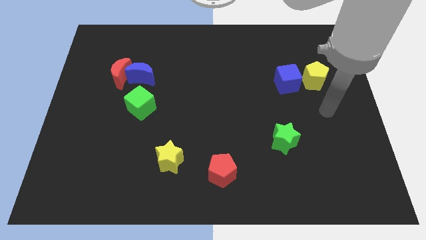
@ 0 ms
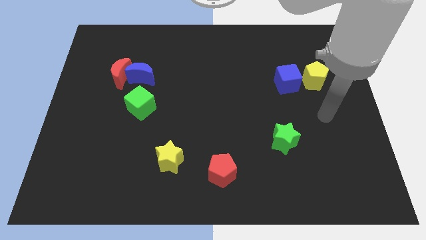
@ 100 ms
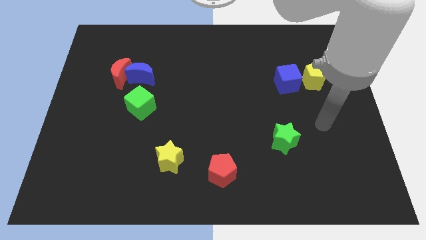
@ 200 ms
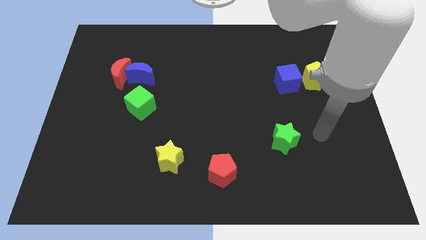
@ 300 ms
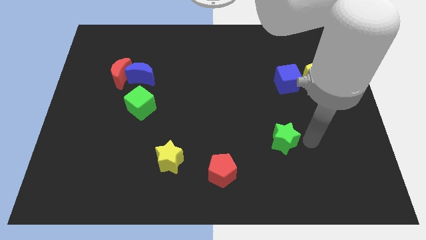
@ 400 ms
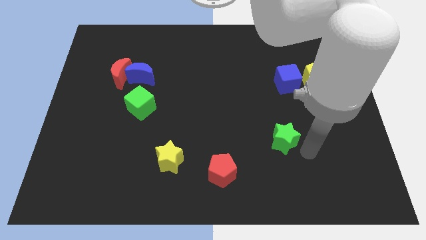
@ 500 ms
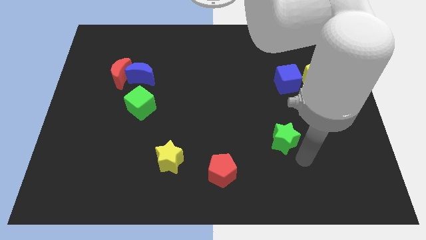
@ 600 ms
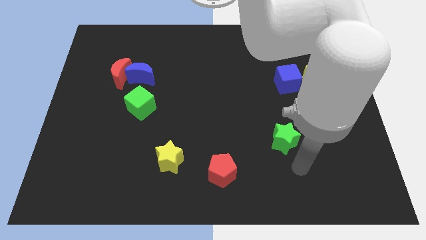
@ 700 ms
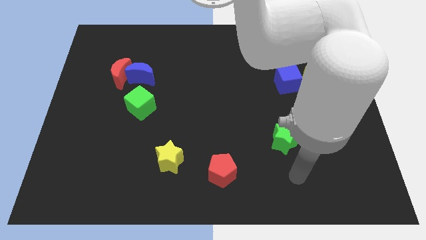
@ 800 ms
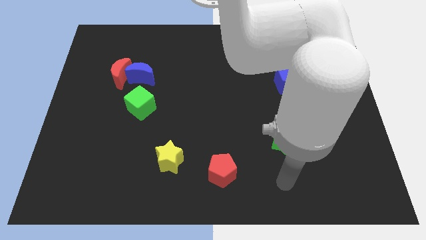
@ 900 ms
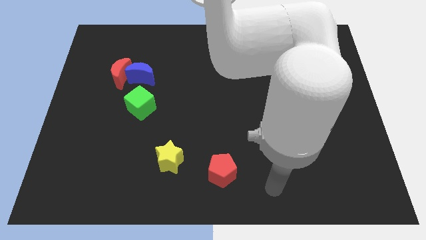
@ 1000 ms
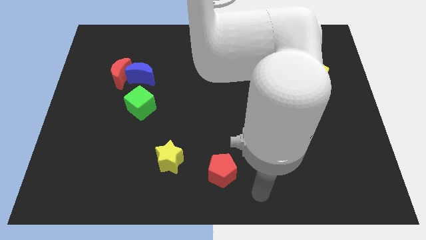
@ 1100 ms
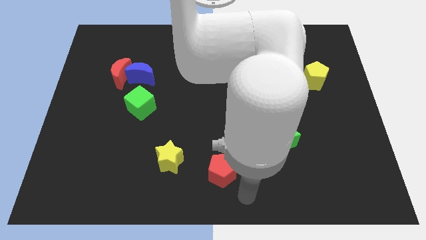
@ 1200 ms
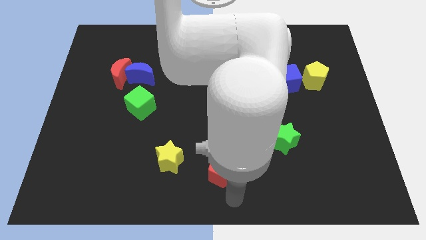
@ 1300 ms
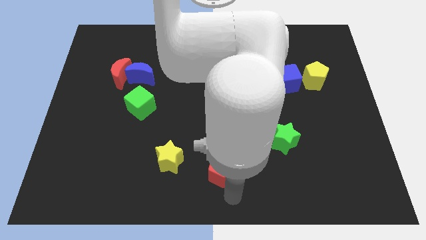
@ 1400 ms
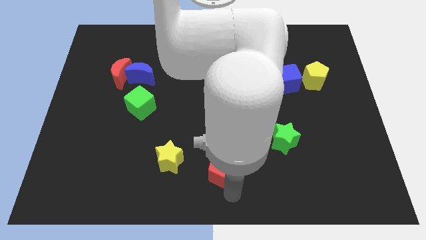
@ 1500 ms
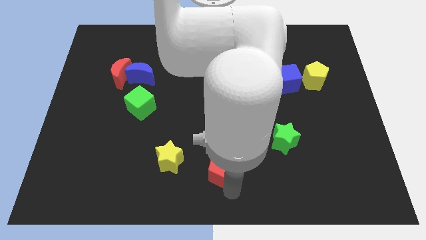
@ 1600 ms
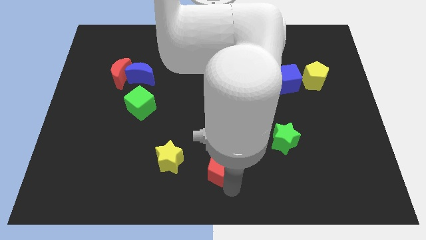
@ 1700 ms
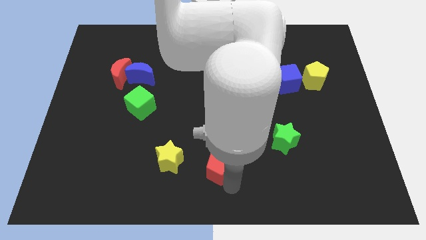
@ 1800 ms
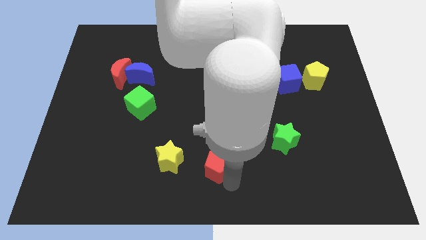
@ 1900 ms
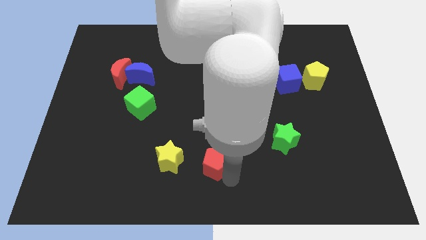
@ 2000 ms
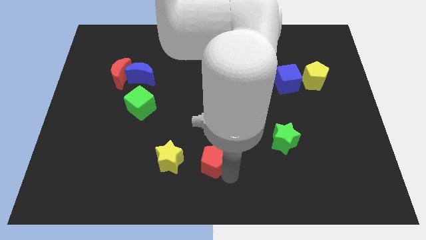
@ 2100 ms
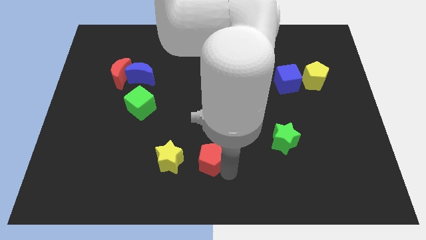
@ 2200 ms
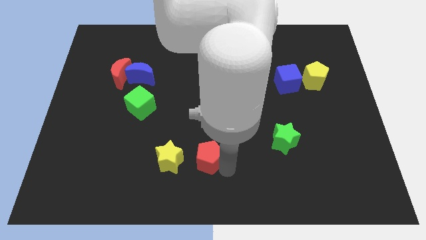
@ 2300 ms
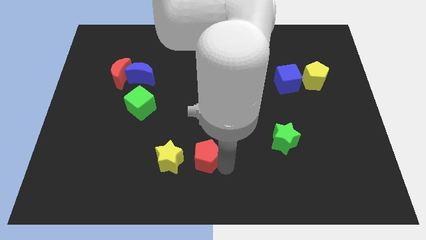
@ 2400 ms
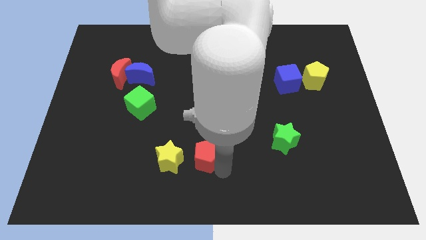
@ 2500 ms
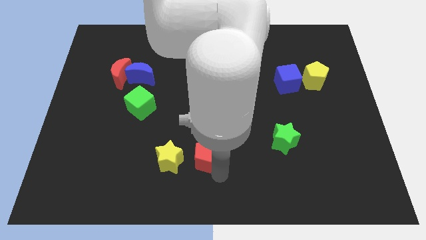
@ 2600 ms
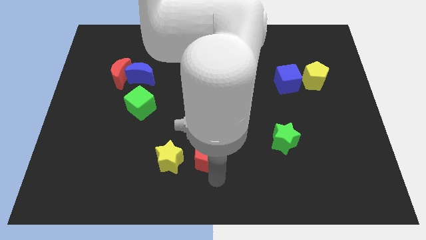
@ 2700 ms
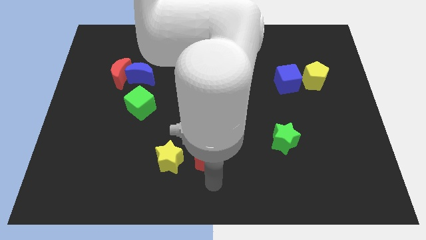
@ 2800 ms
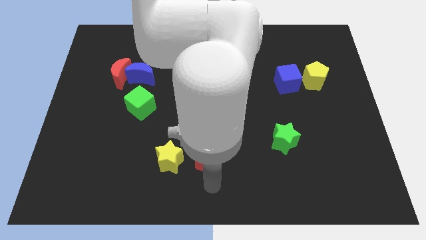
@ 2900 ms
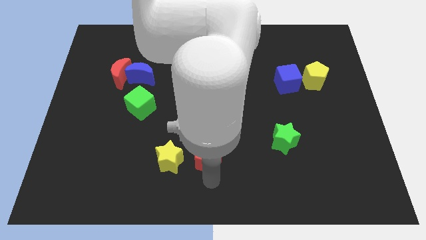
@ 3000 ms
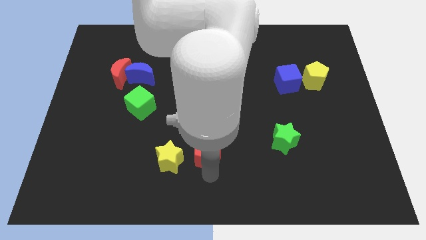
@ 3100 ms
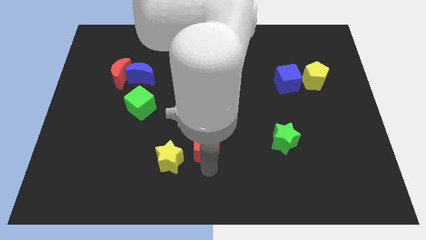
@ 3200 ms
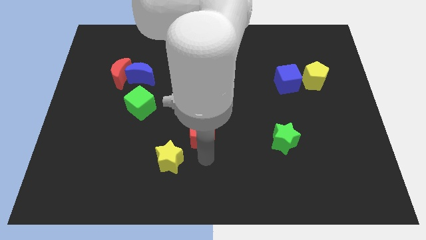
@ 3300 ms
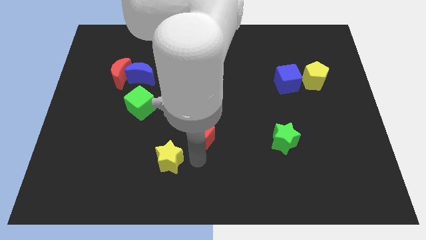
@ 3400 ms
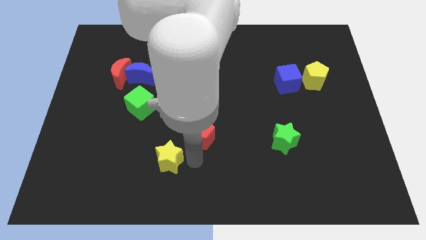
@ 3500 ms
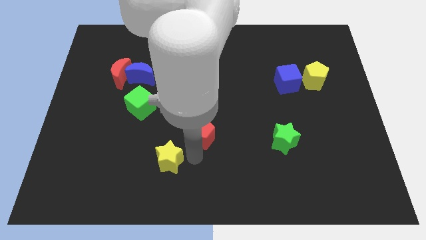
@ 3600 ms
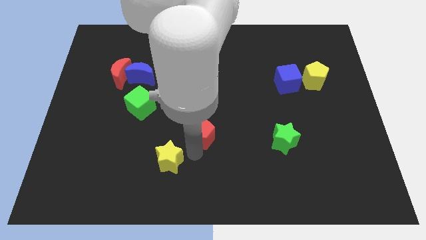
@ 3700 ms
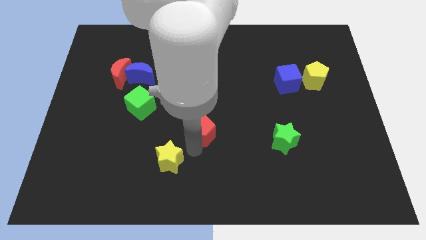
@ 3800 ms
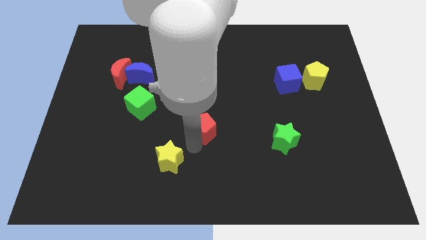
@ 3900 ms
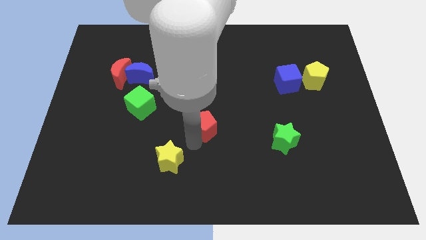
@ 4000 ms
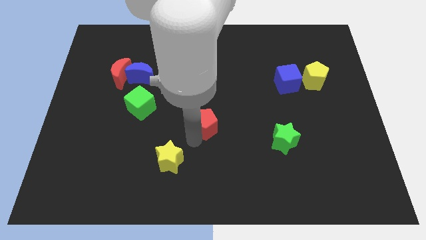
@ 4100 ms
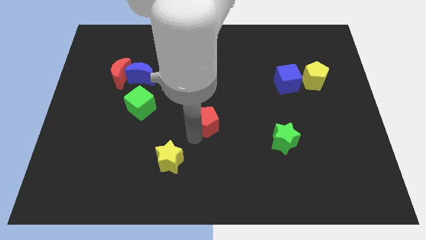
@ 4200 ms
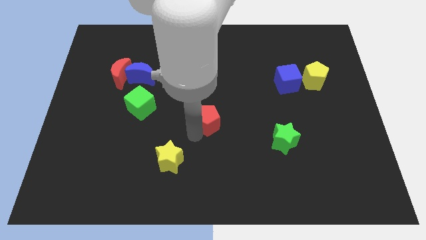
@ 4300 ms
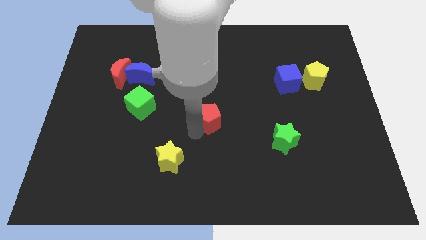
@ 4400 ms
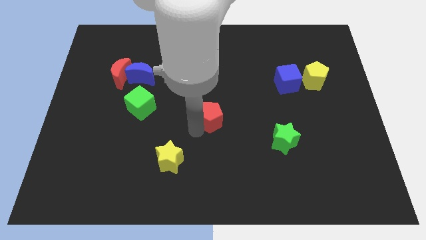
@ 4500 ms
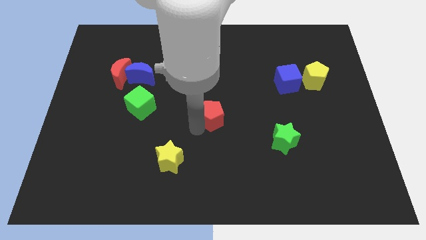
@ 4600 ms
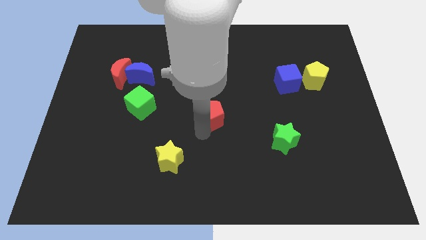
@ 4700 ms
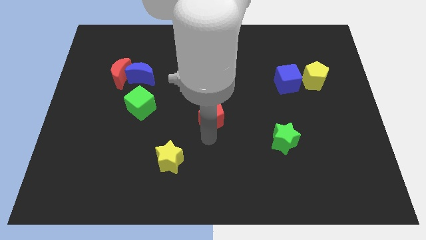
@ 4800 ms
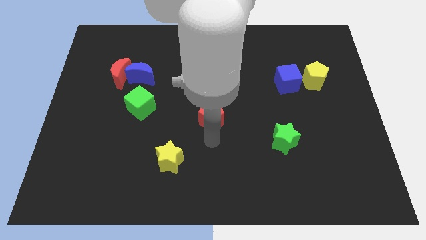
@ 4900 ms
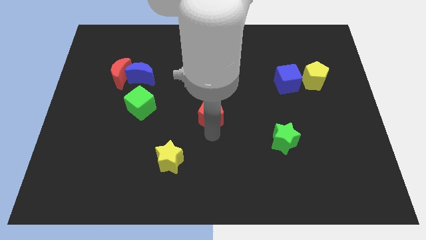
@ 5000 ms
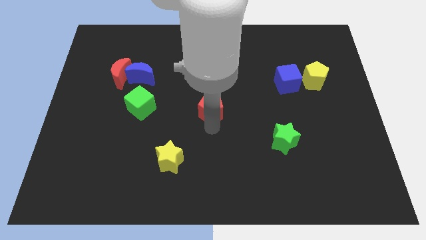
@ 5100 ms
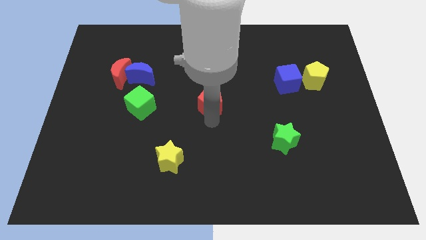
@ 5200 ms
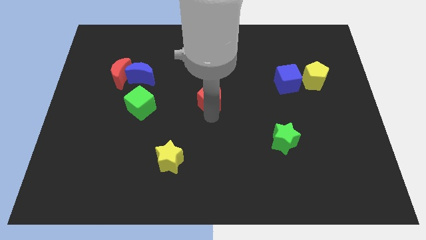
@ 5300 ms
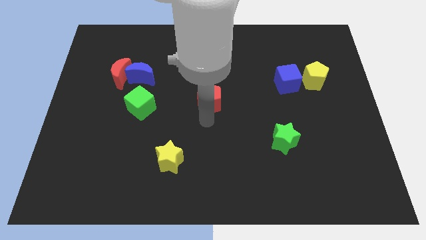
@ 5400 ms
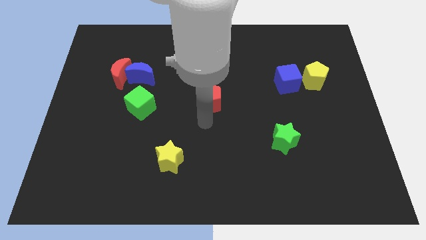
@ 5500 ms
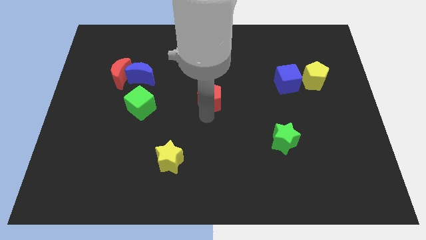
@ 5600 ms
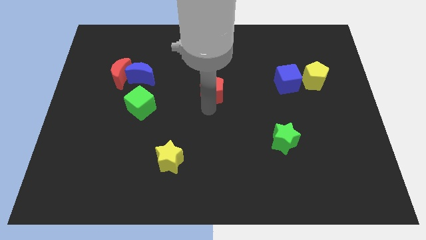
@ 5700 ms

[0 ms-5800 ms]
slide the red pentagon up

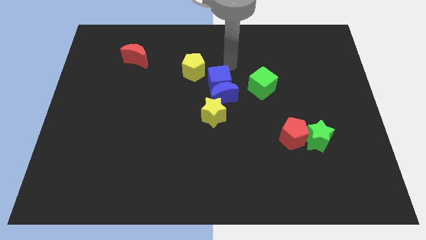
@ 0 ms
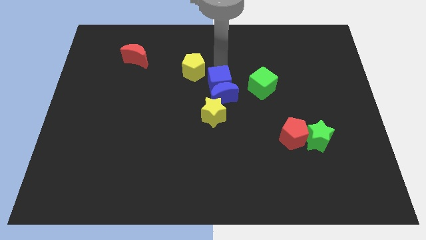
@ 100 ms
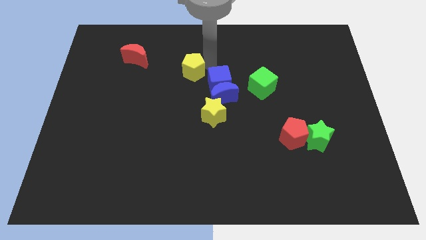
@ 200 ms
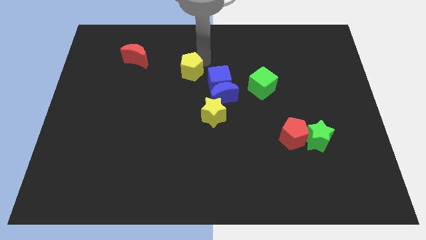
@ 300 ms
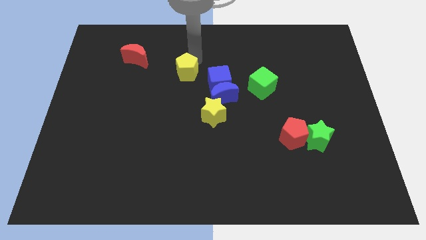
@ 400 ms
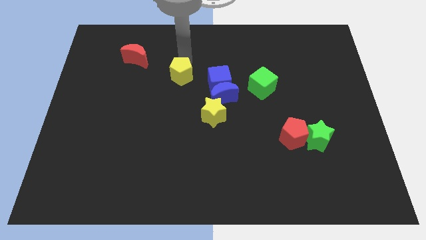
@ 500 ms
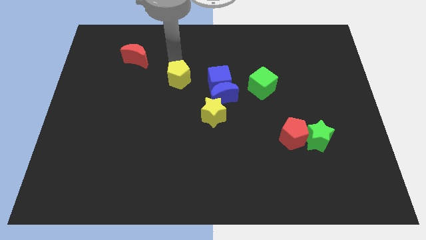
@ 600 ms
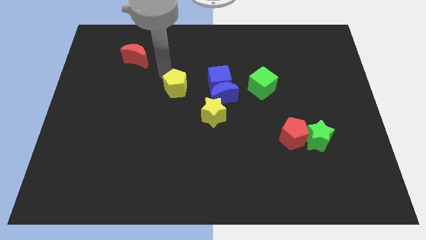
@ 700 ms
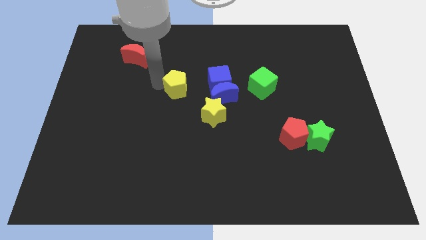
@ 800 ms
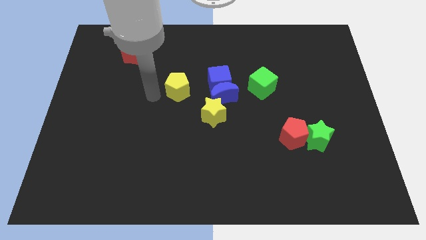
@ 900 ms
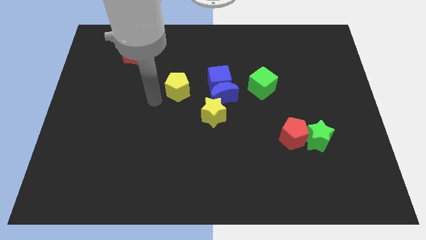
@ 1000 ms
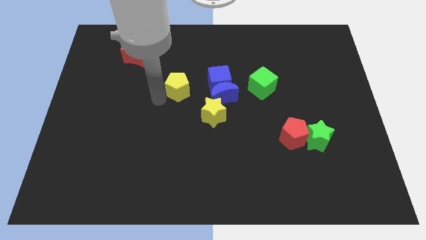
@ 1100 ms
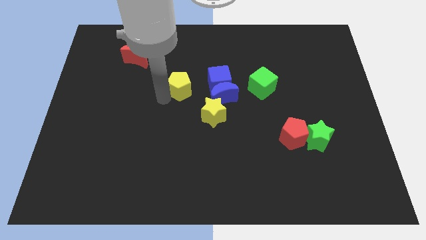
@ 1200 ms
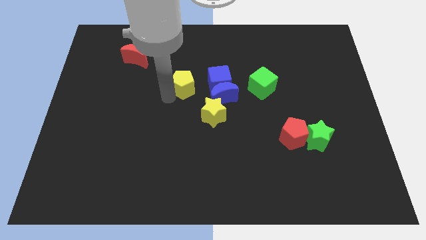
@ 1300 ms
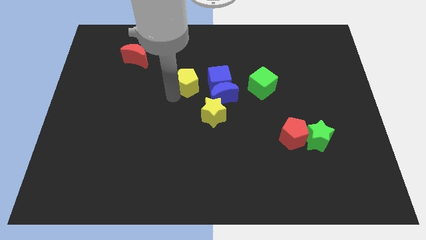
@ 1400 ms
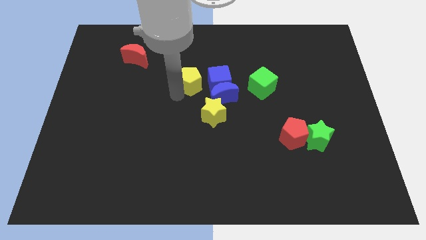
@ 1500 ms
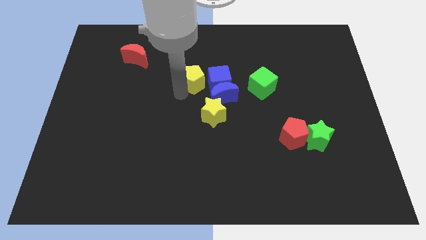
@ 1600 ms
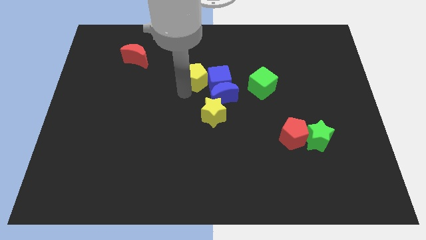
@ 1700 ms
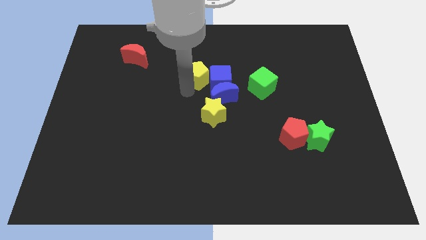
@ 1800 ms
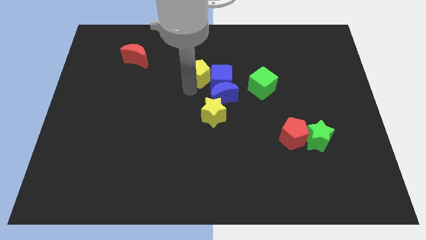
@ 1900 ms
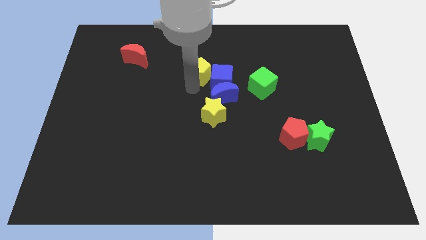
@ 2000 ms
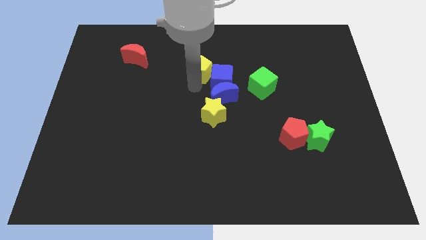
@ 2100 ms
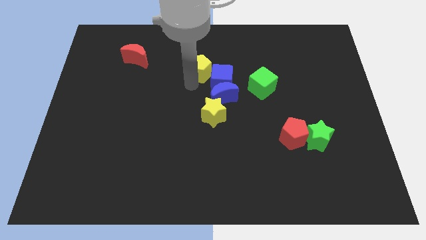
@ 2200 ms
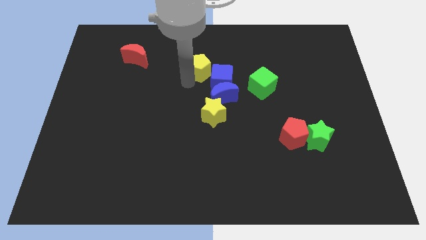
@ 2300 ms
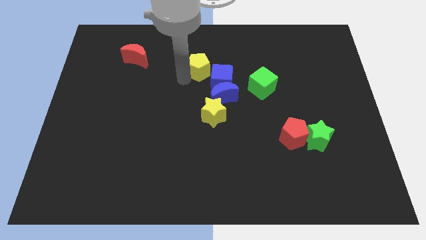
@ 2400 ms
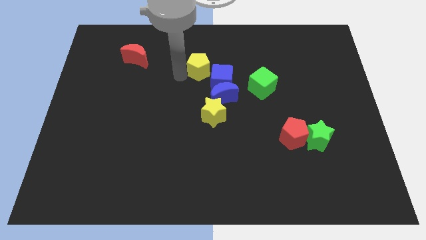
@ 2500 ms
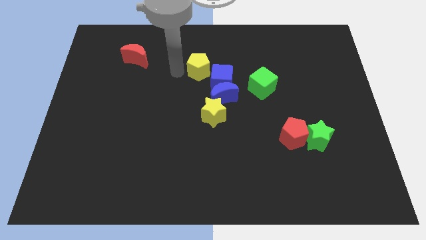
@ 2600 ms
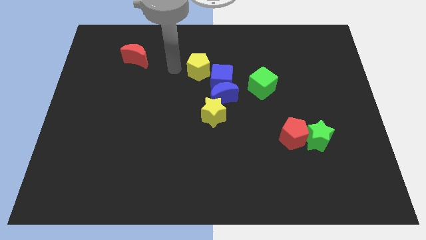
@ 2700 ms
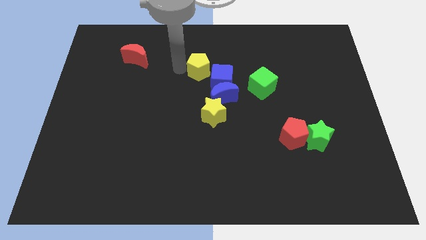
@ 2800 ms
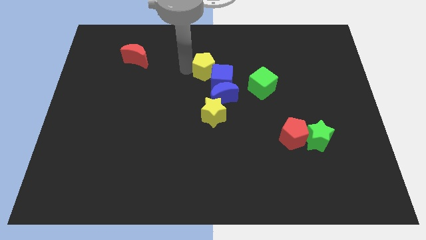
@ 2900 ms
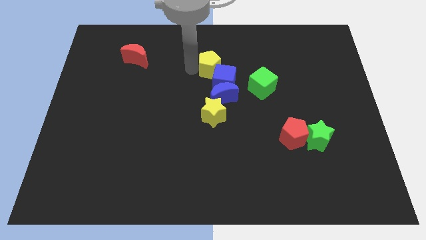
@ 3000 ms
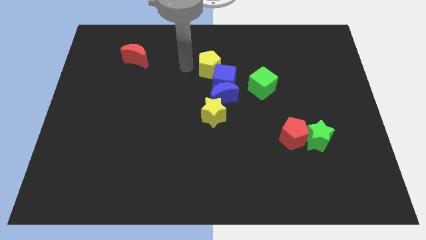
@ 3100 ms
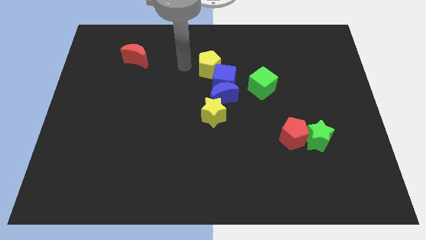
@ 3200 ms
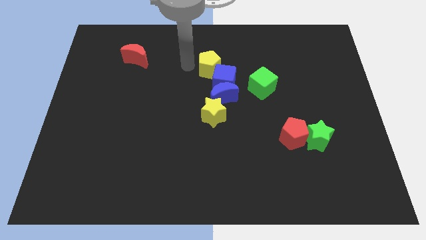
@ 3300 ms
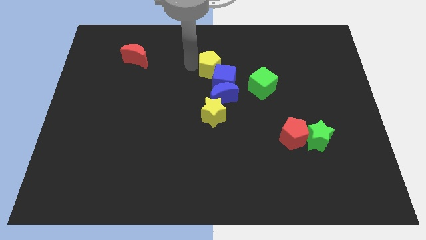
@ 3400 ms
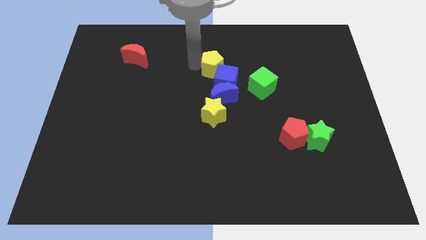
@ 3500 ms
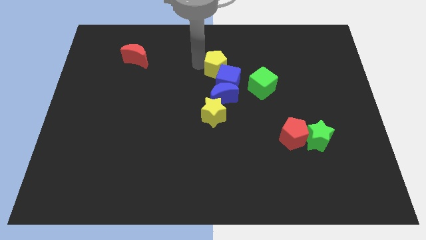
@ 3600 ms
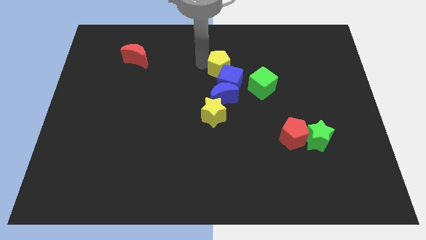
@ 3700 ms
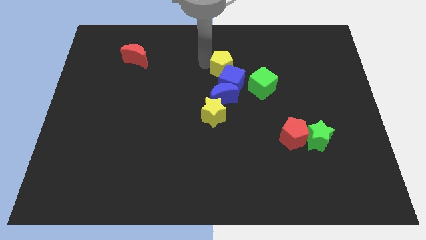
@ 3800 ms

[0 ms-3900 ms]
move the yellow pentagon somewhat right
